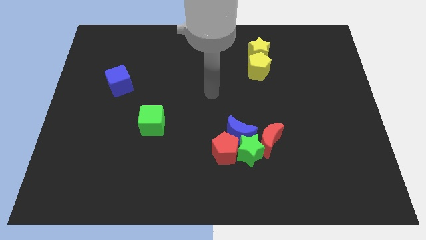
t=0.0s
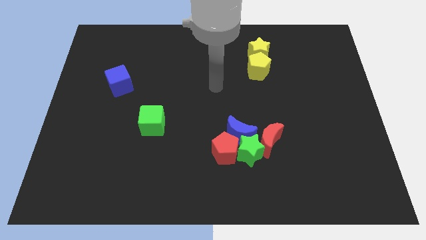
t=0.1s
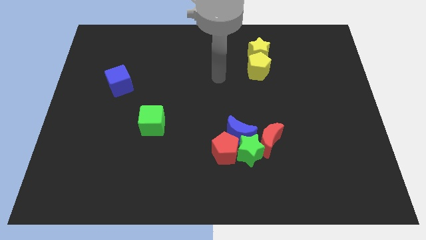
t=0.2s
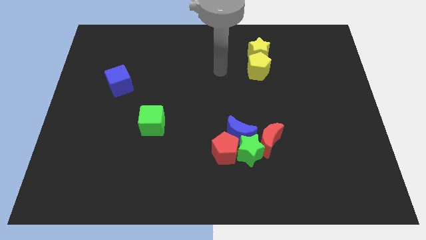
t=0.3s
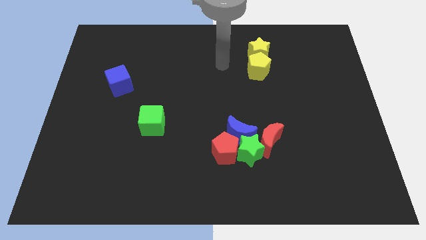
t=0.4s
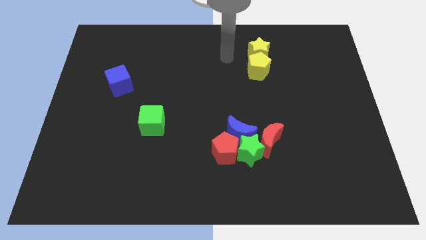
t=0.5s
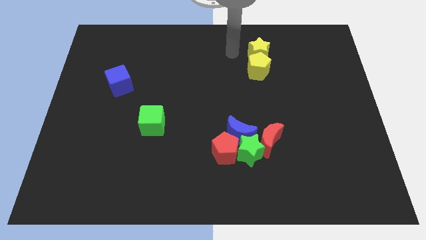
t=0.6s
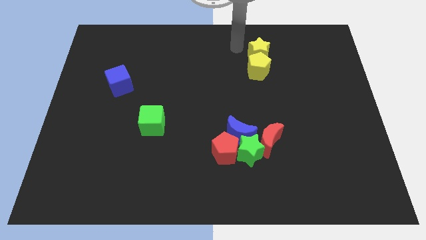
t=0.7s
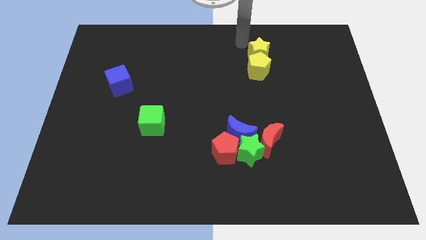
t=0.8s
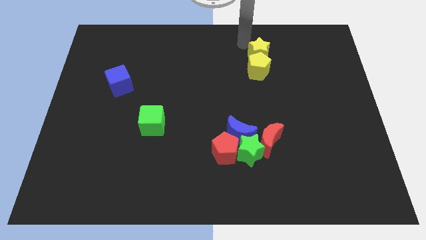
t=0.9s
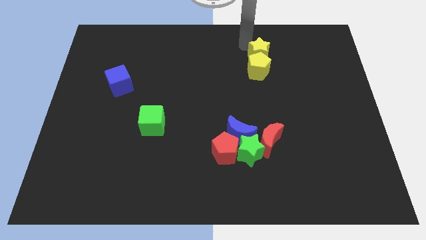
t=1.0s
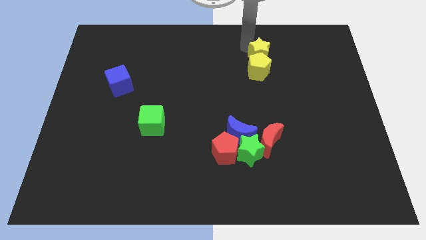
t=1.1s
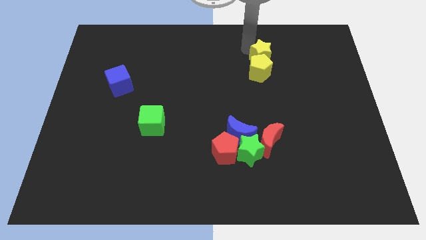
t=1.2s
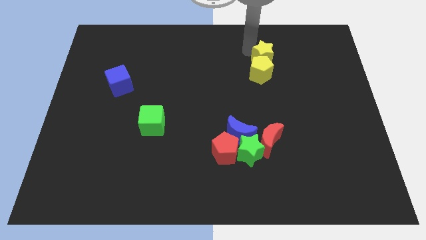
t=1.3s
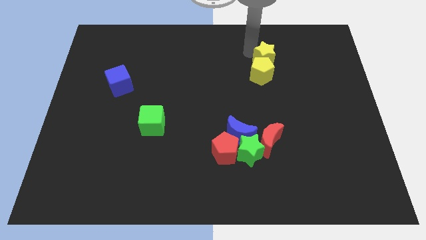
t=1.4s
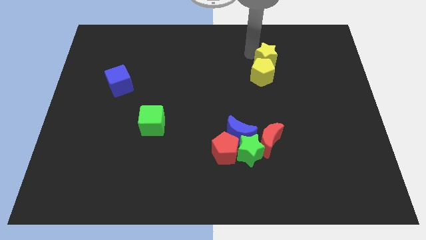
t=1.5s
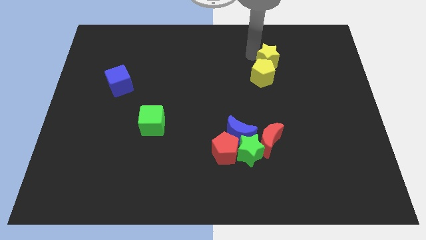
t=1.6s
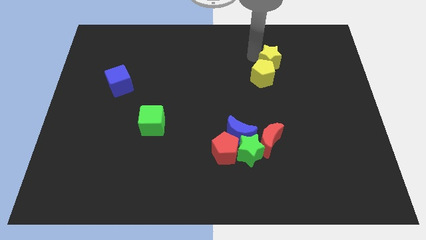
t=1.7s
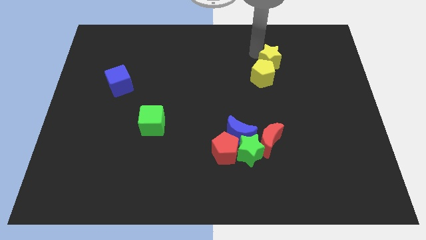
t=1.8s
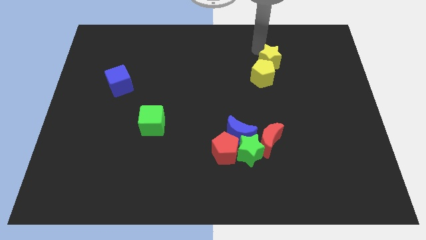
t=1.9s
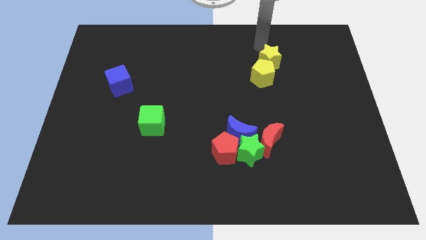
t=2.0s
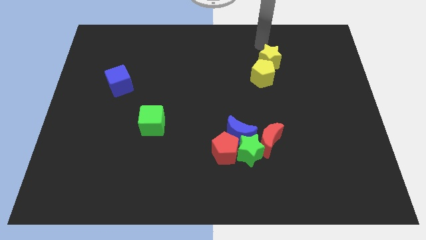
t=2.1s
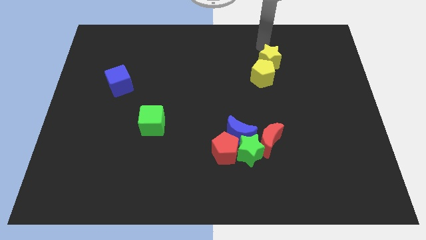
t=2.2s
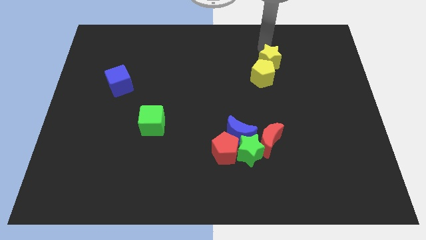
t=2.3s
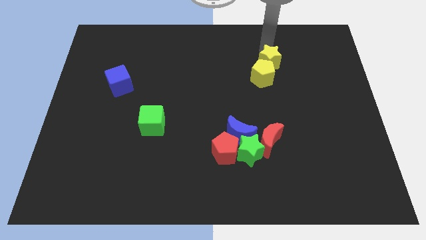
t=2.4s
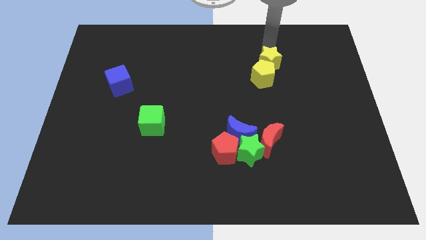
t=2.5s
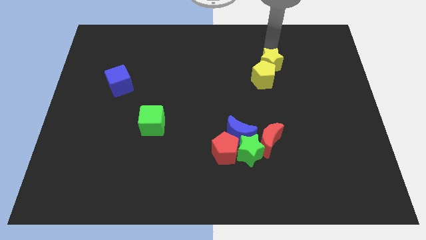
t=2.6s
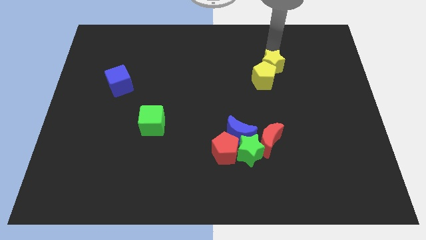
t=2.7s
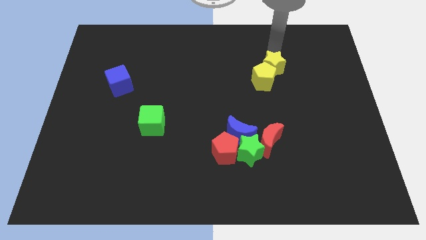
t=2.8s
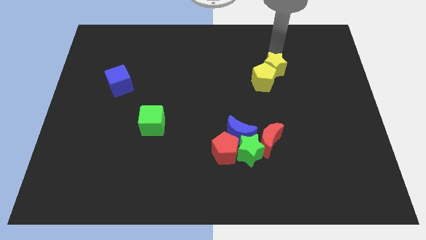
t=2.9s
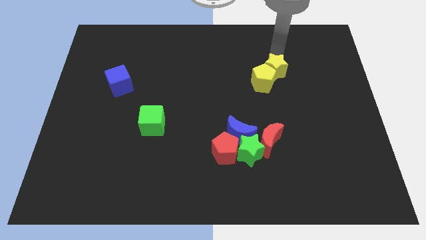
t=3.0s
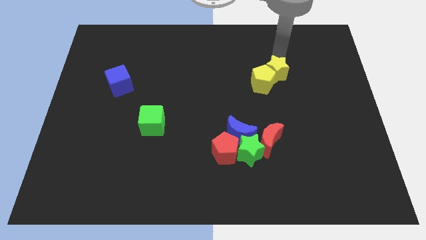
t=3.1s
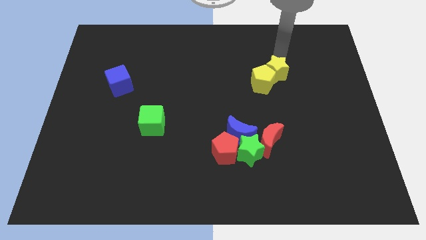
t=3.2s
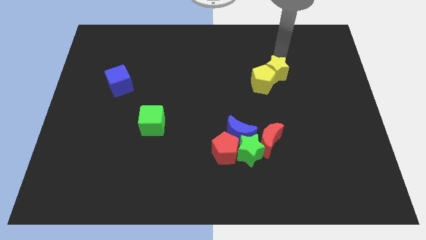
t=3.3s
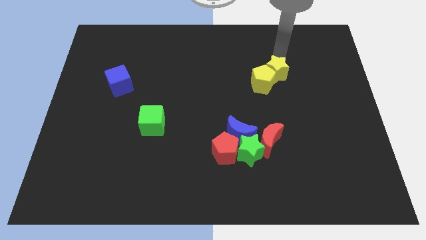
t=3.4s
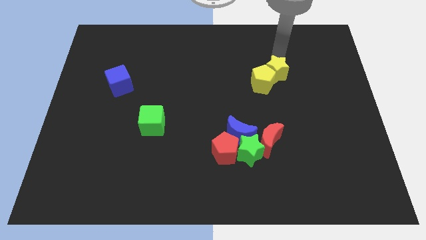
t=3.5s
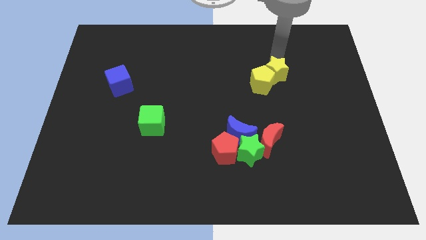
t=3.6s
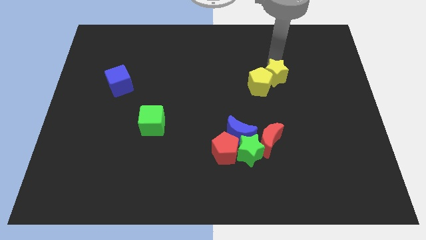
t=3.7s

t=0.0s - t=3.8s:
slightly push the yellow star down

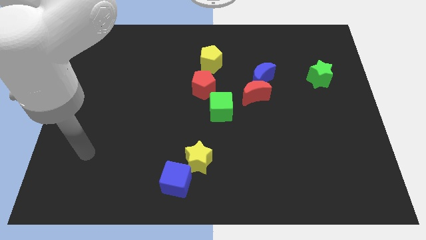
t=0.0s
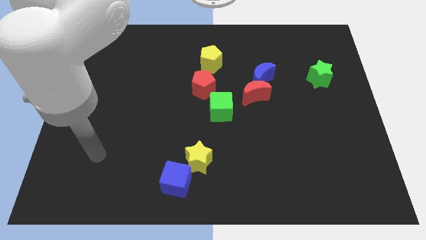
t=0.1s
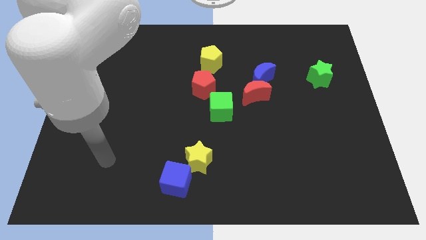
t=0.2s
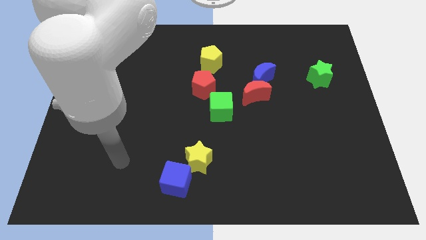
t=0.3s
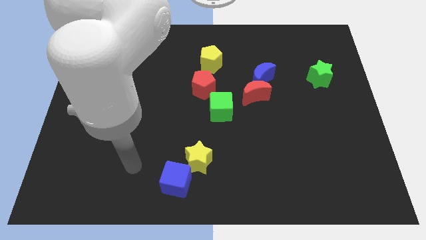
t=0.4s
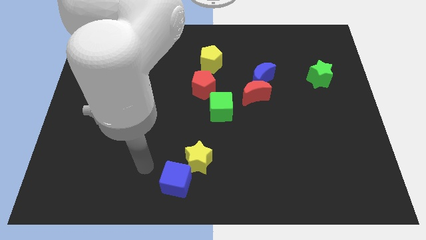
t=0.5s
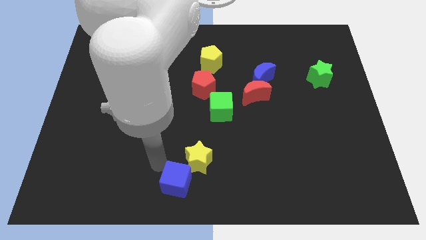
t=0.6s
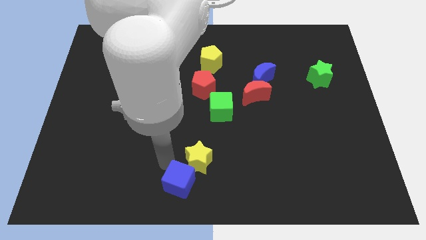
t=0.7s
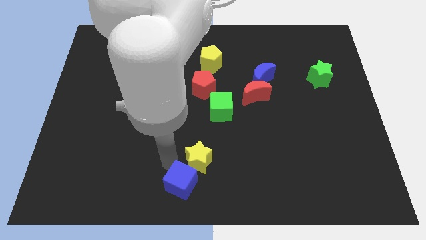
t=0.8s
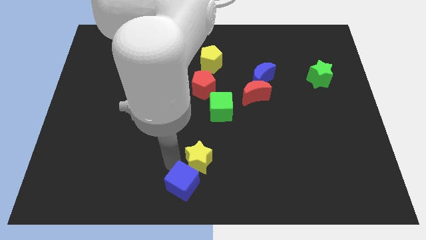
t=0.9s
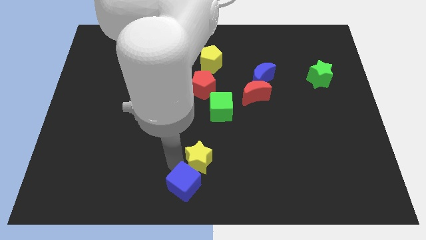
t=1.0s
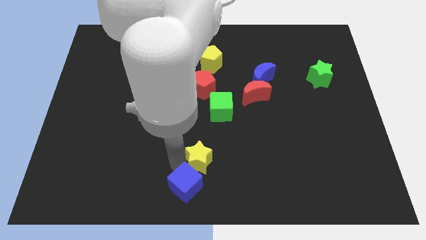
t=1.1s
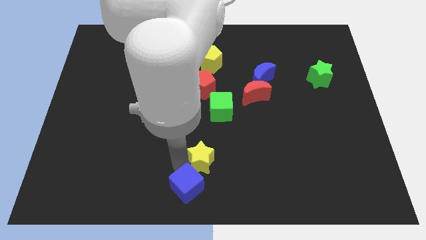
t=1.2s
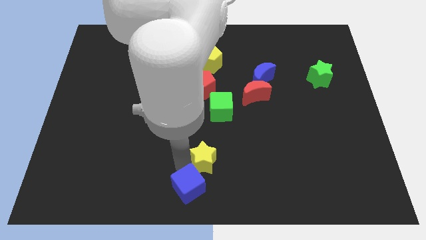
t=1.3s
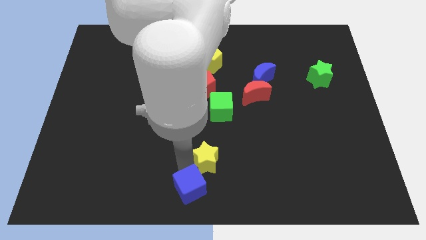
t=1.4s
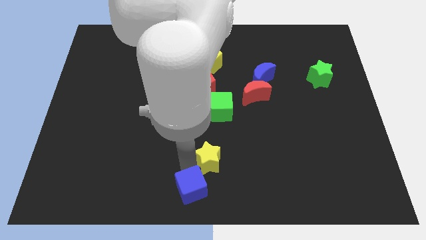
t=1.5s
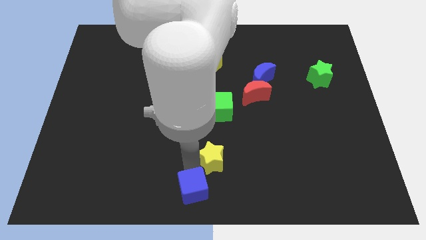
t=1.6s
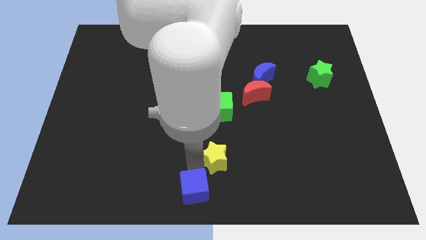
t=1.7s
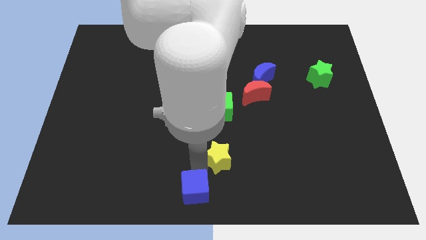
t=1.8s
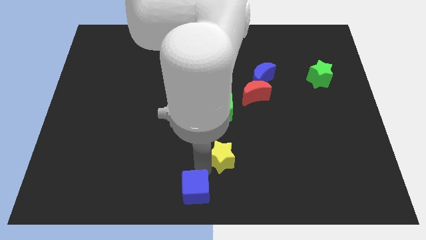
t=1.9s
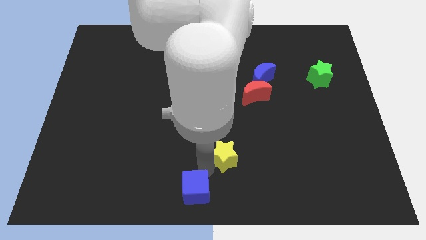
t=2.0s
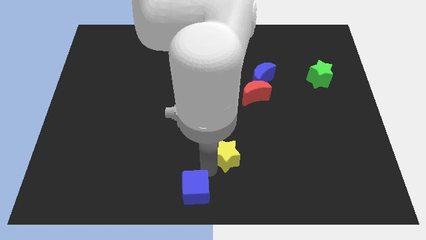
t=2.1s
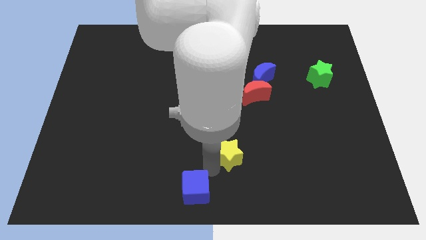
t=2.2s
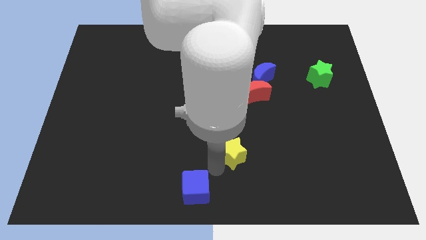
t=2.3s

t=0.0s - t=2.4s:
move the yellow star a bit right

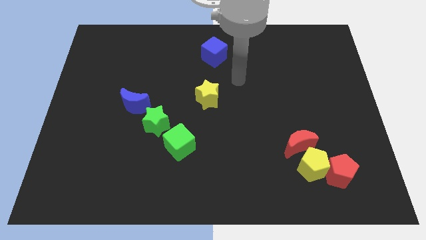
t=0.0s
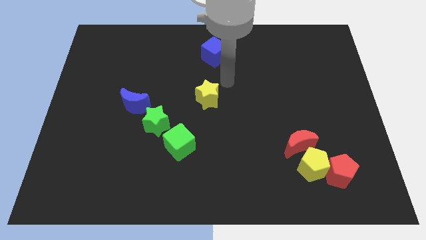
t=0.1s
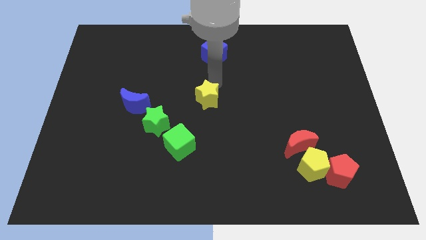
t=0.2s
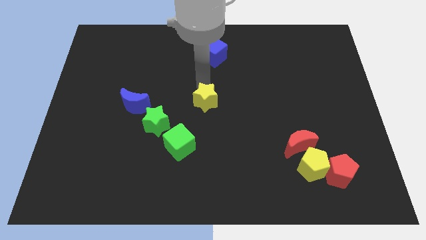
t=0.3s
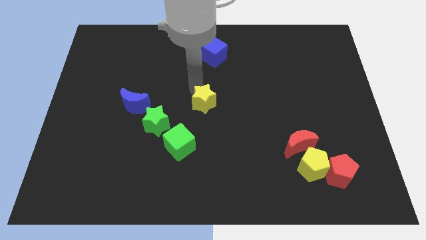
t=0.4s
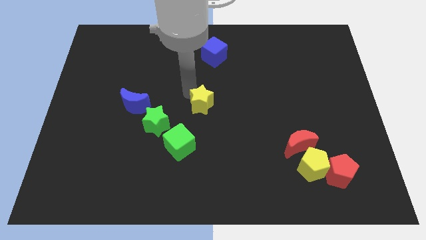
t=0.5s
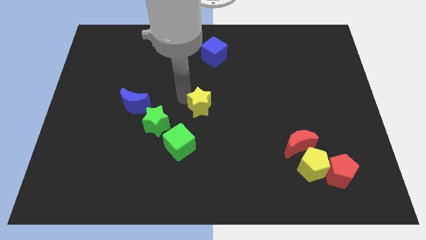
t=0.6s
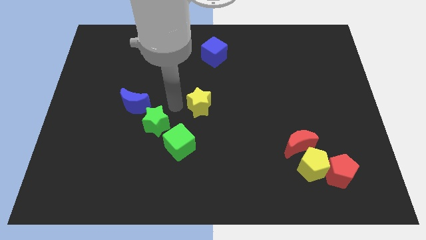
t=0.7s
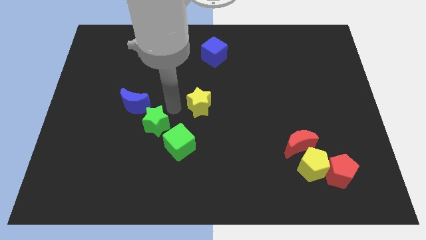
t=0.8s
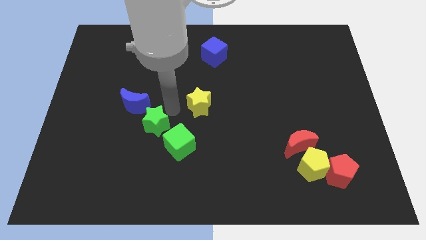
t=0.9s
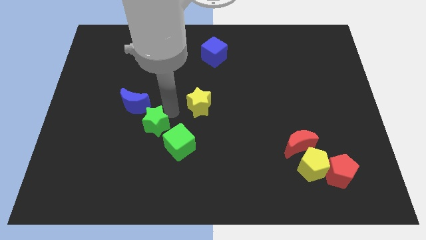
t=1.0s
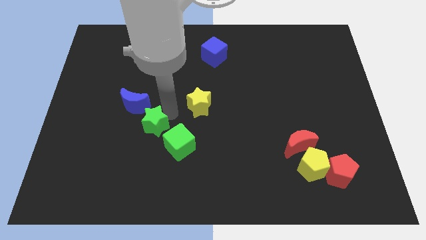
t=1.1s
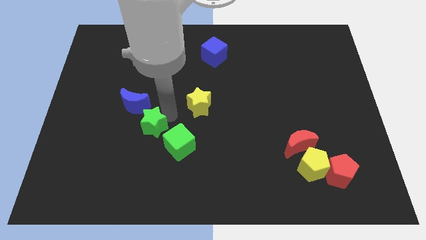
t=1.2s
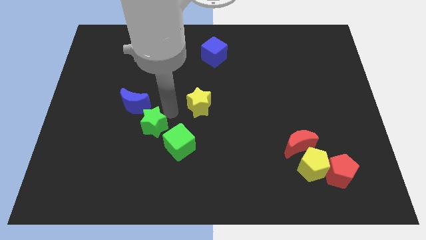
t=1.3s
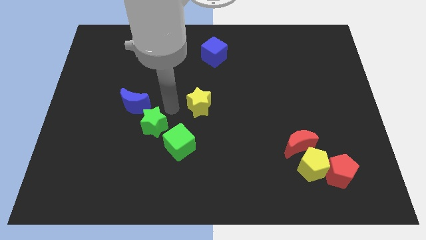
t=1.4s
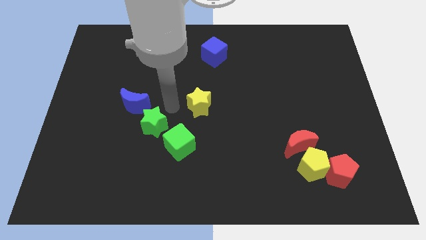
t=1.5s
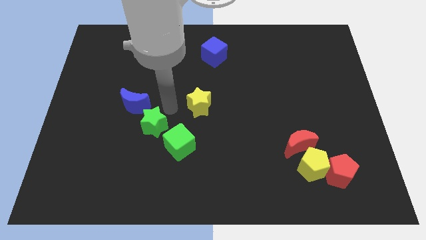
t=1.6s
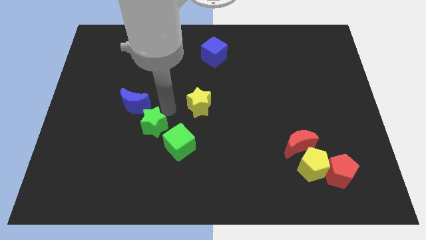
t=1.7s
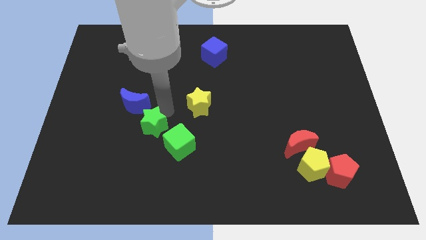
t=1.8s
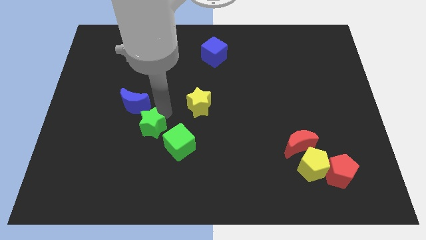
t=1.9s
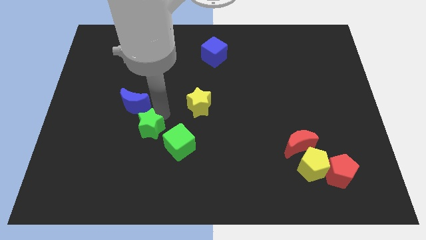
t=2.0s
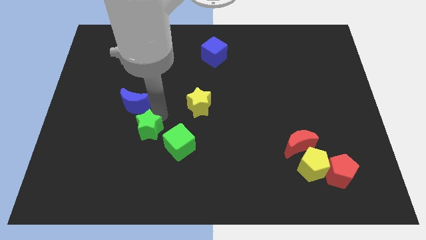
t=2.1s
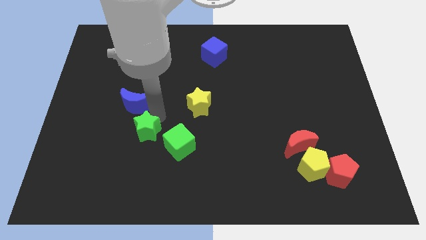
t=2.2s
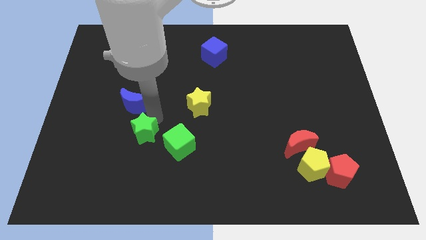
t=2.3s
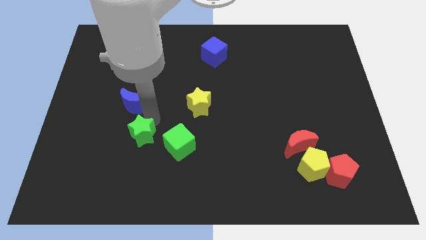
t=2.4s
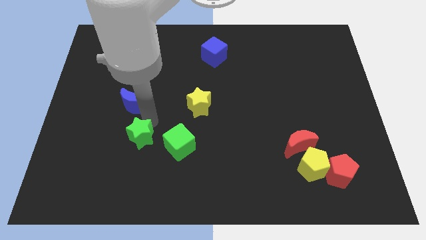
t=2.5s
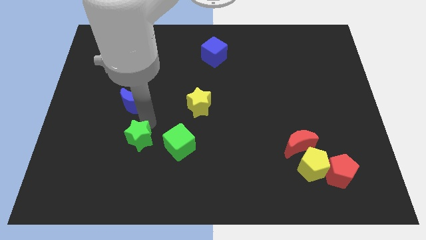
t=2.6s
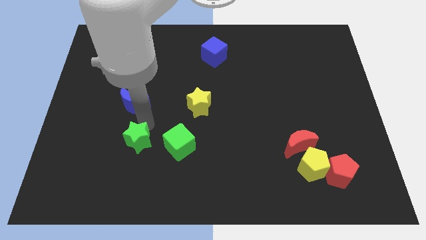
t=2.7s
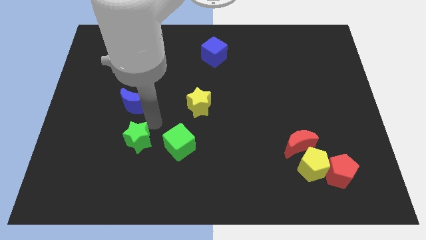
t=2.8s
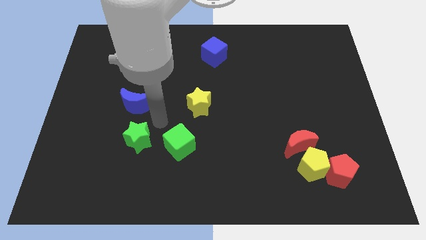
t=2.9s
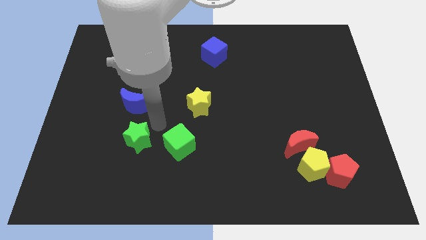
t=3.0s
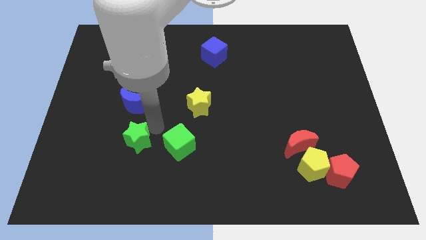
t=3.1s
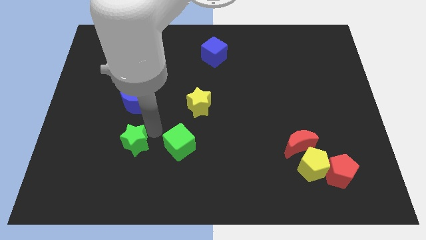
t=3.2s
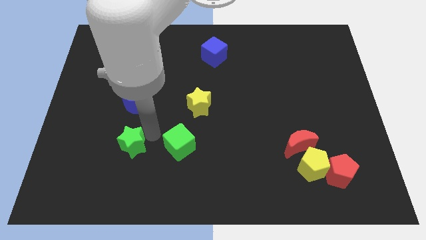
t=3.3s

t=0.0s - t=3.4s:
slightly move the green star down and left
